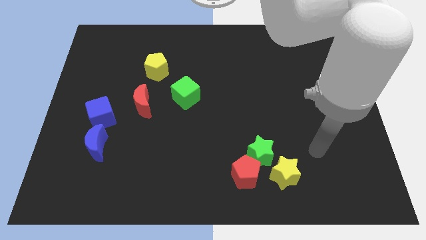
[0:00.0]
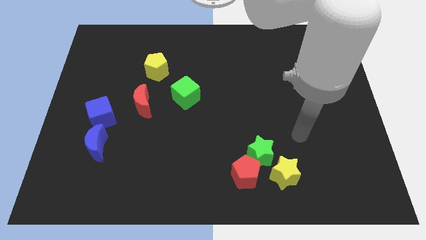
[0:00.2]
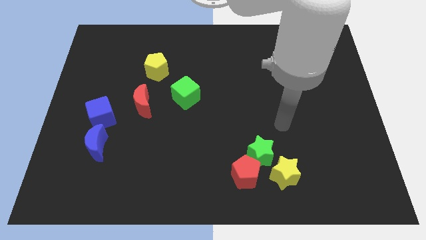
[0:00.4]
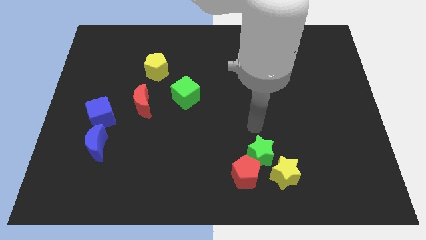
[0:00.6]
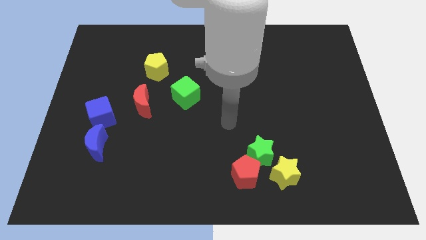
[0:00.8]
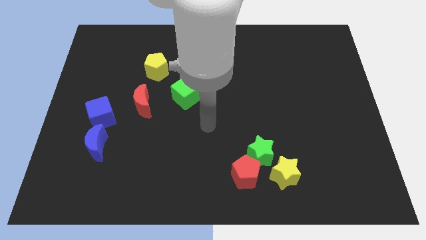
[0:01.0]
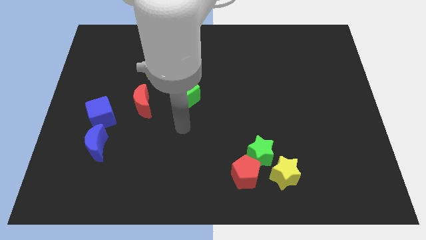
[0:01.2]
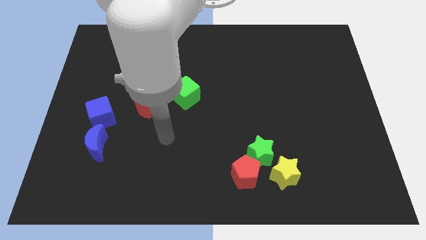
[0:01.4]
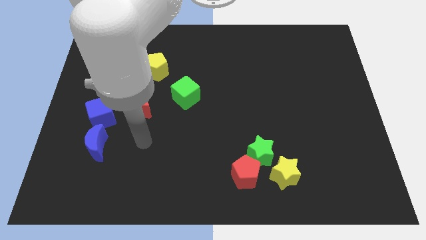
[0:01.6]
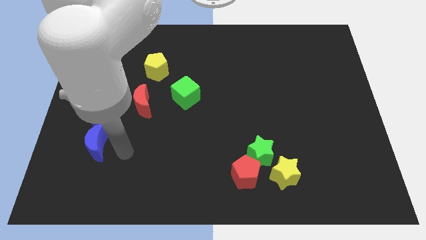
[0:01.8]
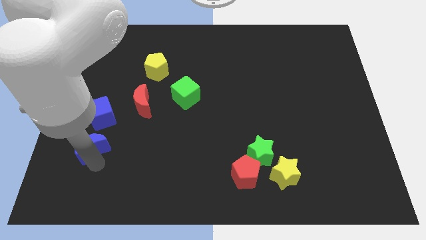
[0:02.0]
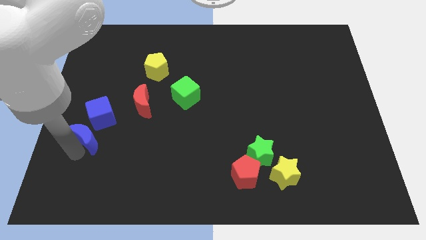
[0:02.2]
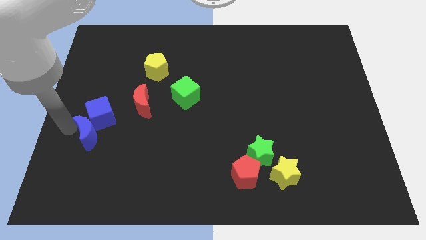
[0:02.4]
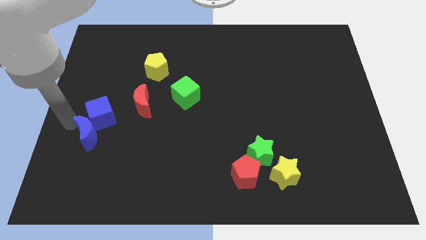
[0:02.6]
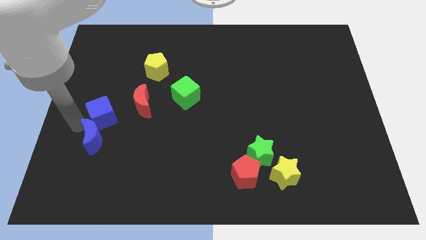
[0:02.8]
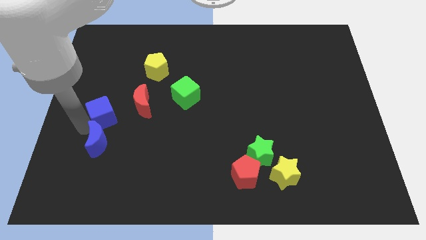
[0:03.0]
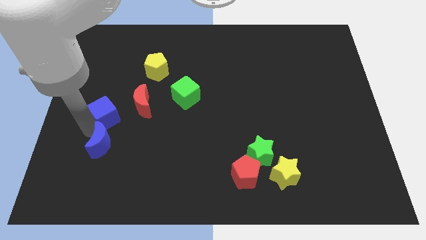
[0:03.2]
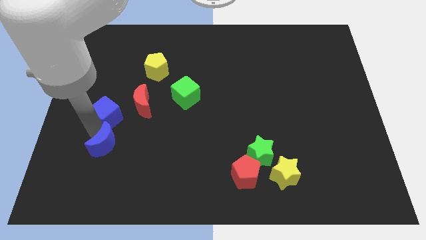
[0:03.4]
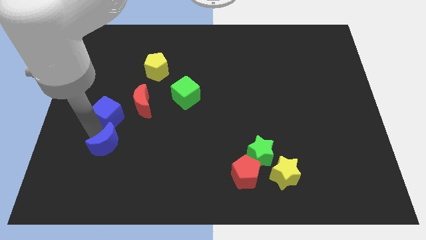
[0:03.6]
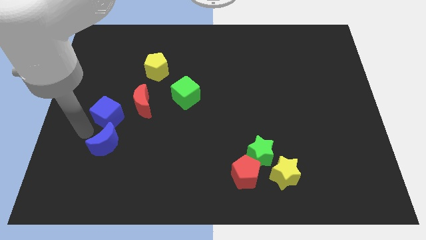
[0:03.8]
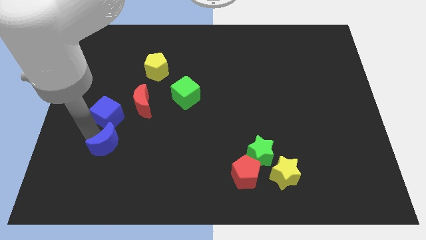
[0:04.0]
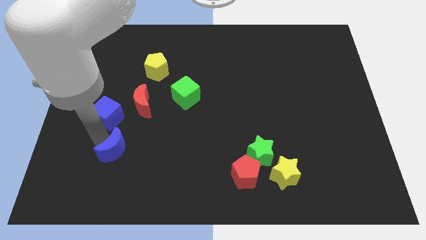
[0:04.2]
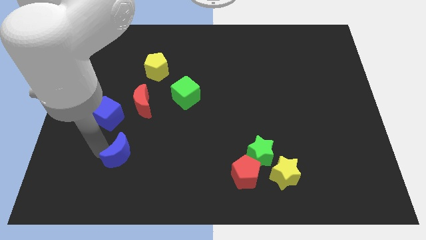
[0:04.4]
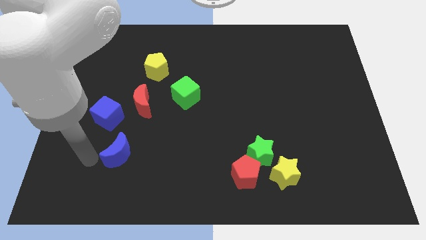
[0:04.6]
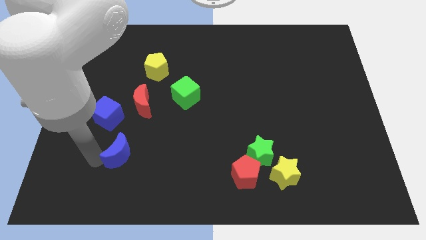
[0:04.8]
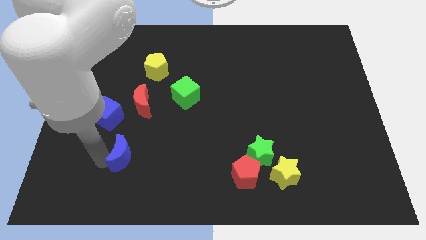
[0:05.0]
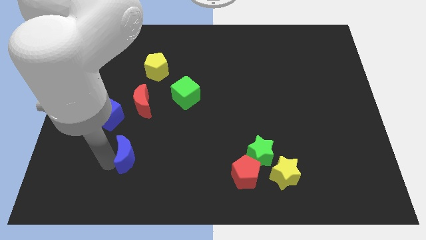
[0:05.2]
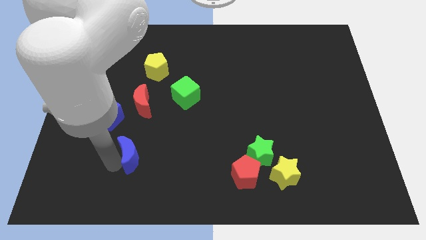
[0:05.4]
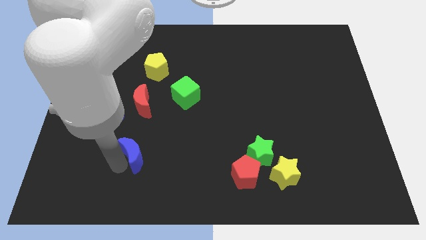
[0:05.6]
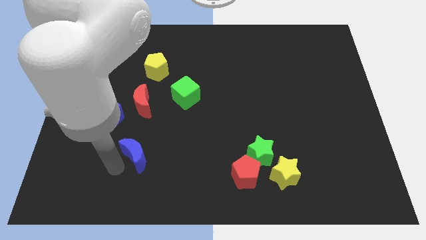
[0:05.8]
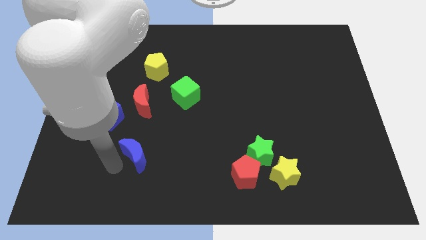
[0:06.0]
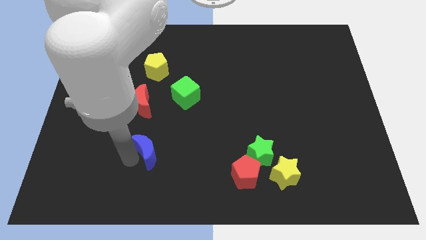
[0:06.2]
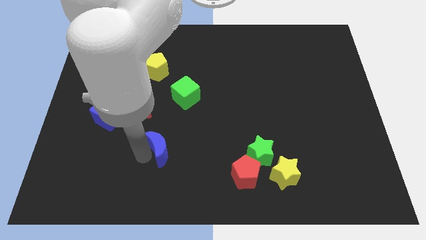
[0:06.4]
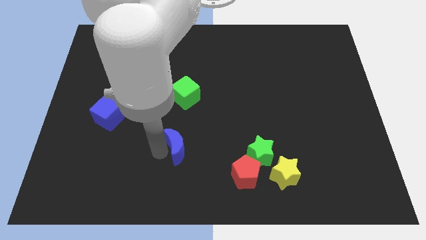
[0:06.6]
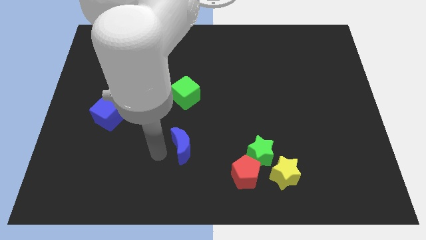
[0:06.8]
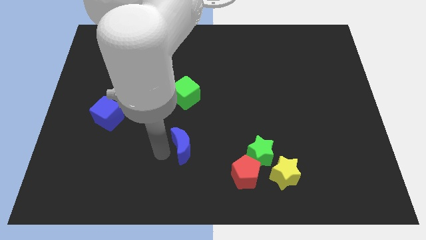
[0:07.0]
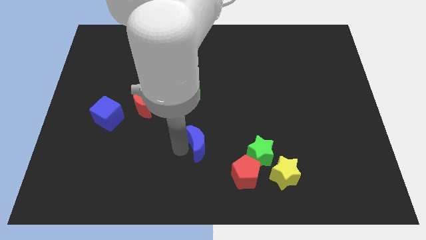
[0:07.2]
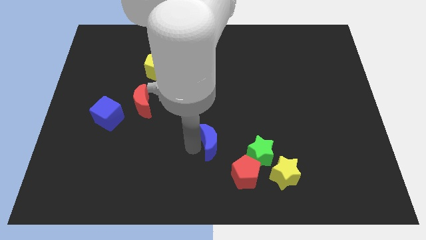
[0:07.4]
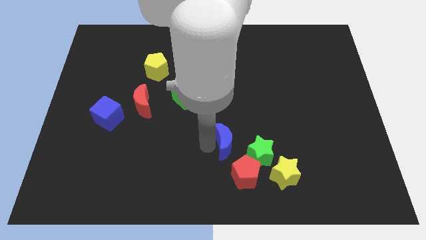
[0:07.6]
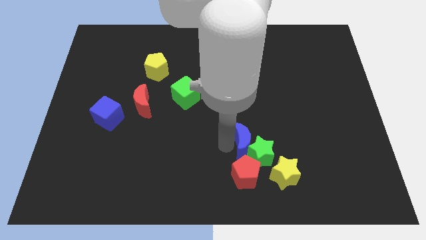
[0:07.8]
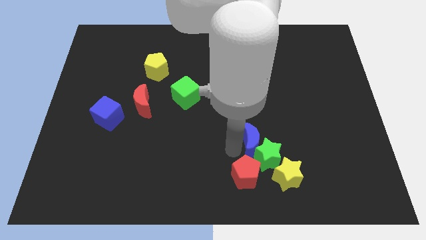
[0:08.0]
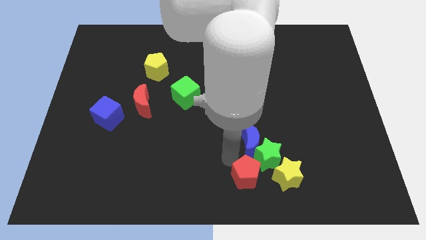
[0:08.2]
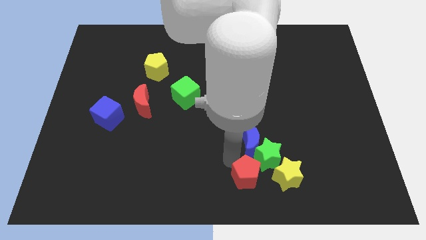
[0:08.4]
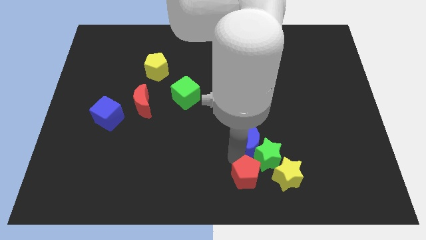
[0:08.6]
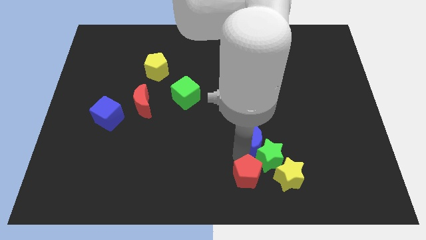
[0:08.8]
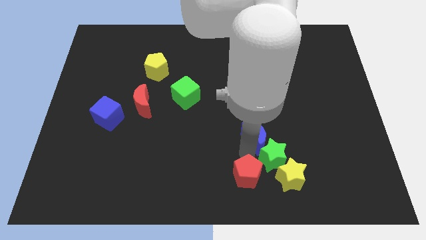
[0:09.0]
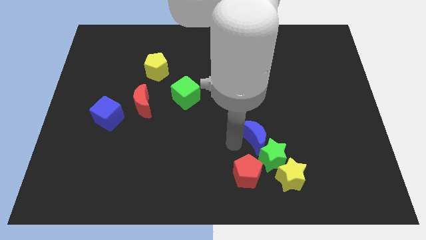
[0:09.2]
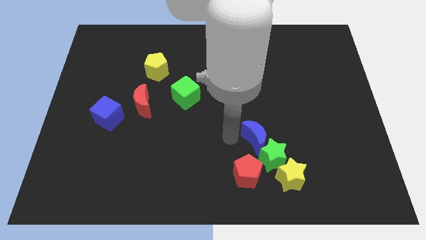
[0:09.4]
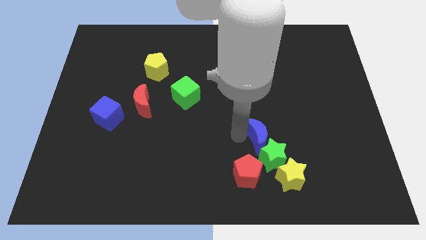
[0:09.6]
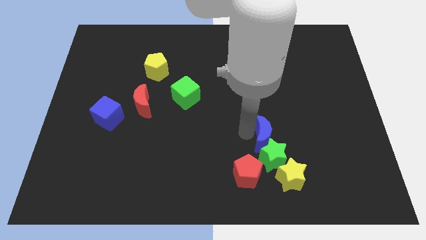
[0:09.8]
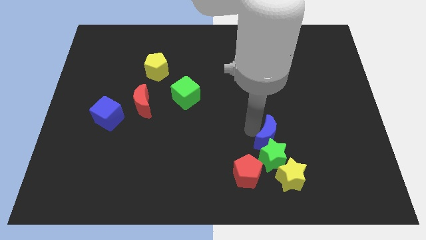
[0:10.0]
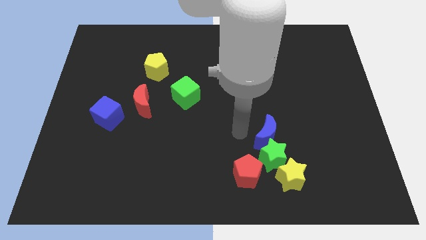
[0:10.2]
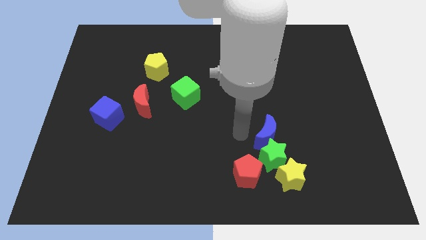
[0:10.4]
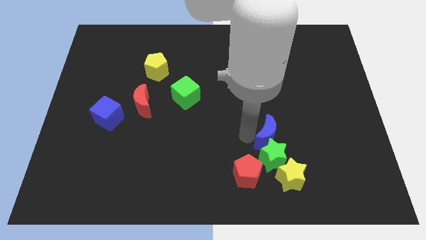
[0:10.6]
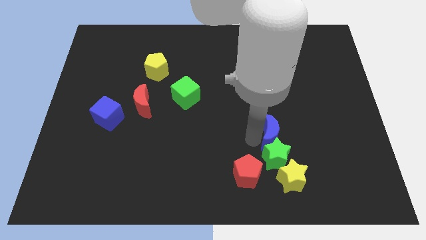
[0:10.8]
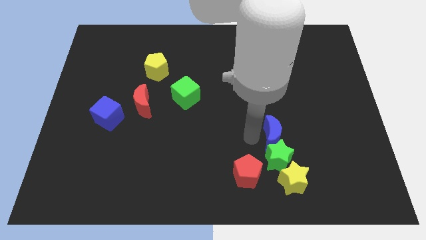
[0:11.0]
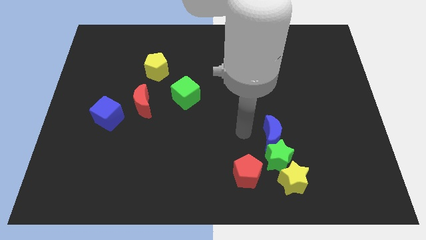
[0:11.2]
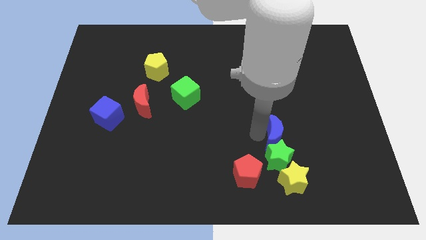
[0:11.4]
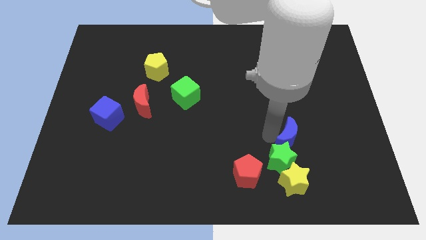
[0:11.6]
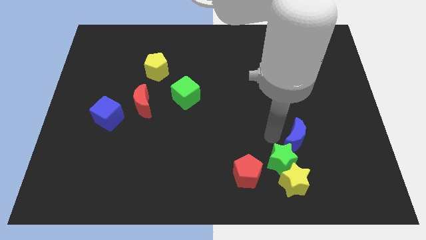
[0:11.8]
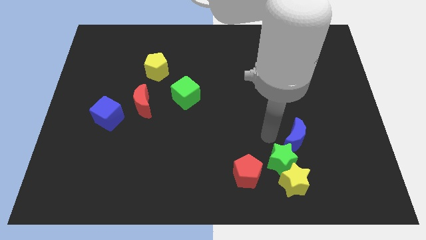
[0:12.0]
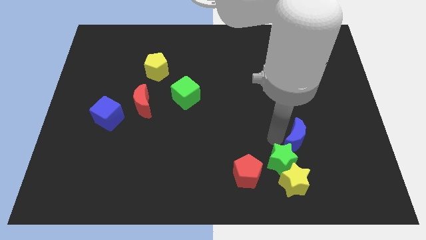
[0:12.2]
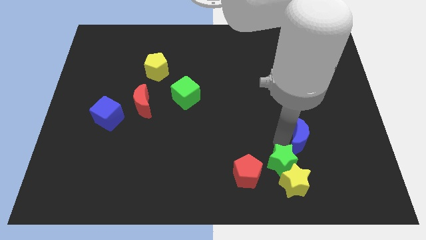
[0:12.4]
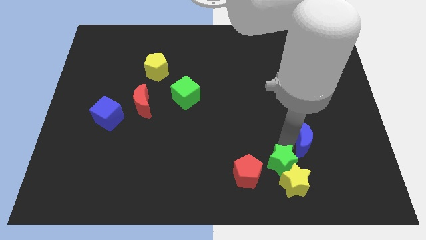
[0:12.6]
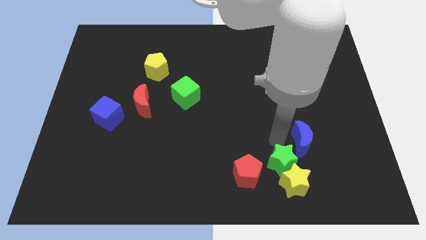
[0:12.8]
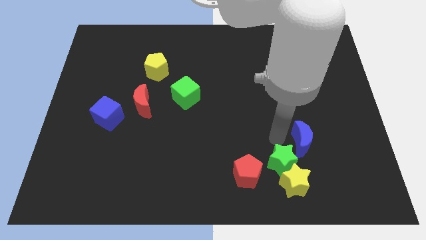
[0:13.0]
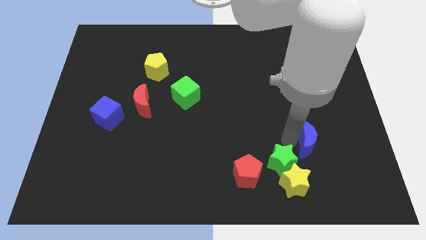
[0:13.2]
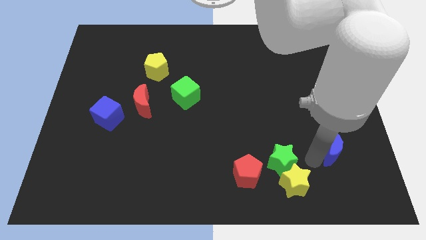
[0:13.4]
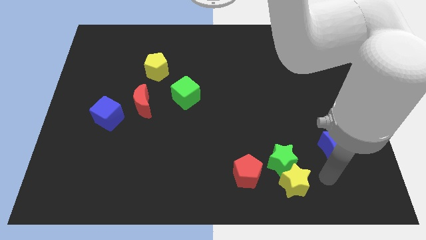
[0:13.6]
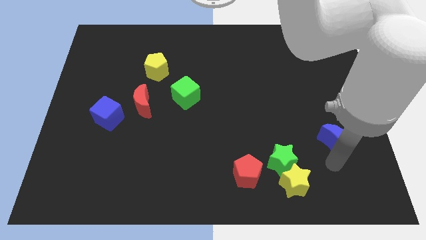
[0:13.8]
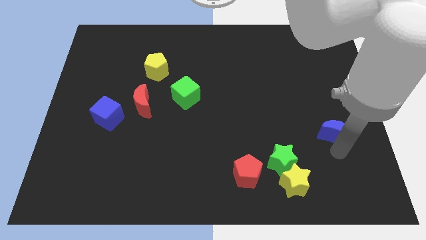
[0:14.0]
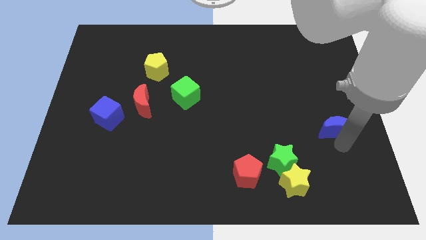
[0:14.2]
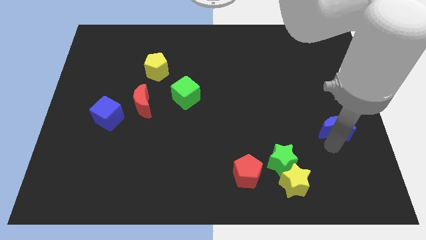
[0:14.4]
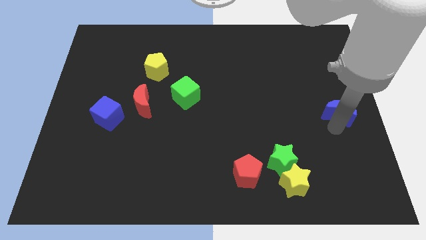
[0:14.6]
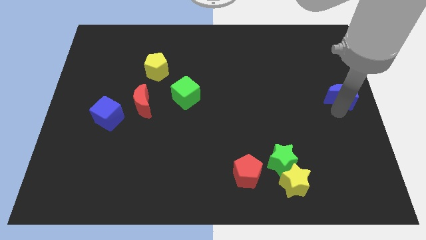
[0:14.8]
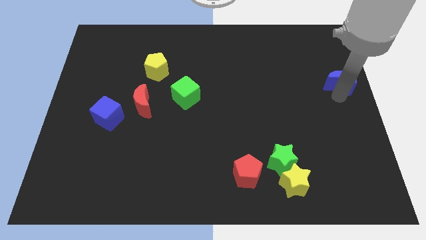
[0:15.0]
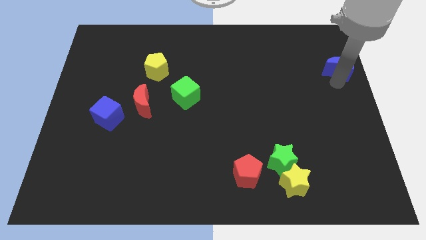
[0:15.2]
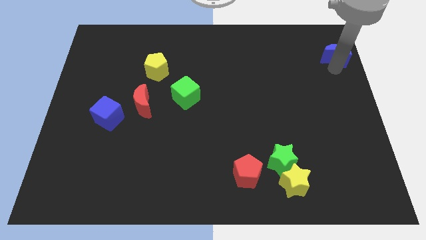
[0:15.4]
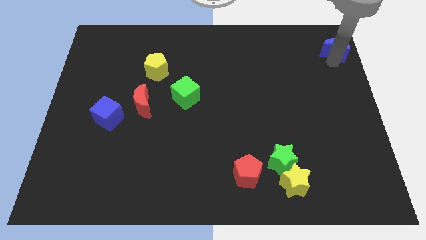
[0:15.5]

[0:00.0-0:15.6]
slide the blue moon to the top right corner
